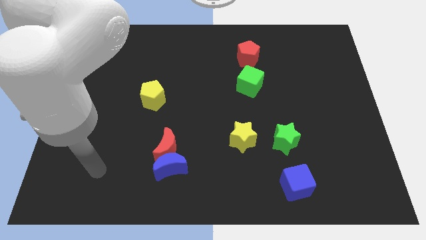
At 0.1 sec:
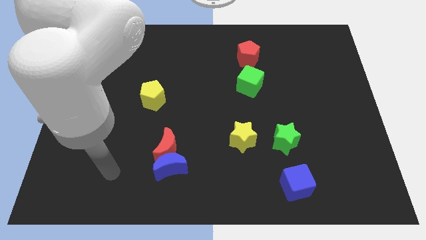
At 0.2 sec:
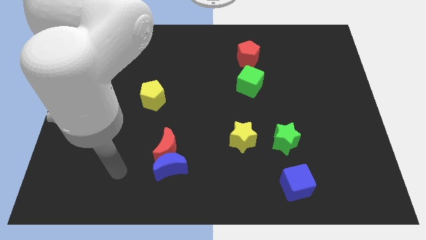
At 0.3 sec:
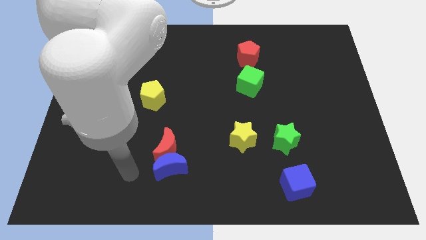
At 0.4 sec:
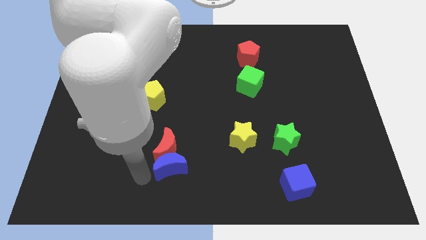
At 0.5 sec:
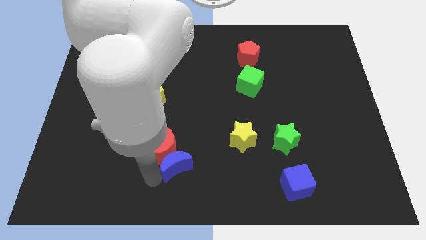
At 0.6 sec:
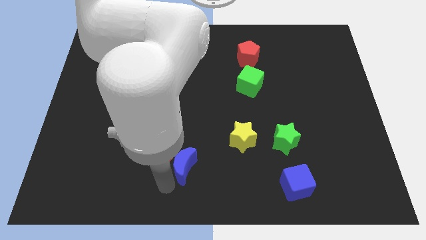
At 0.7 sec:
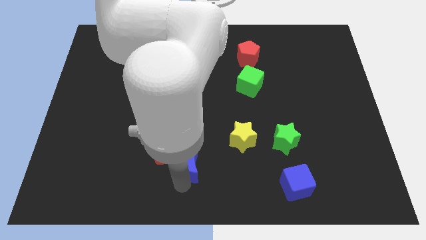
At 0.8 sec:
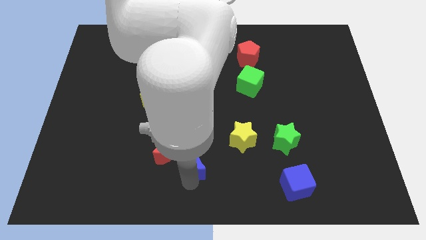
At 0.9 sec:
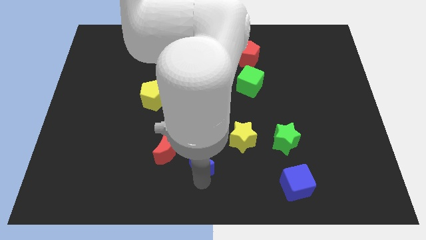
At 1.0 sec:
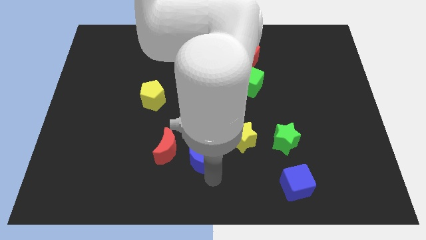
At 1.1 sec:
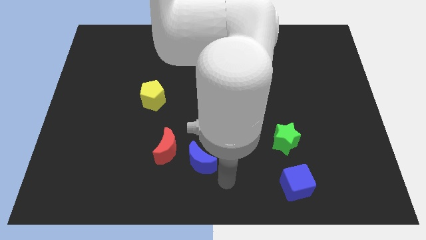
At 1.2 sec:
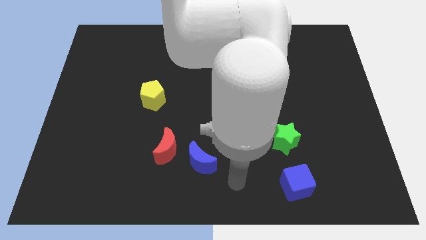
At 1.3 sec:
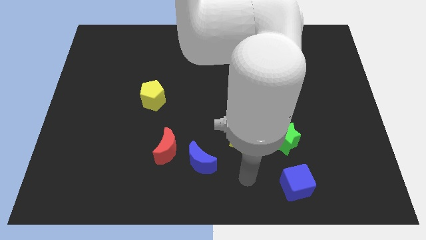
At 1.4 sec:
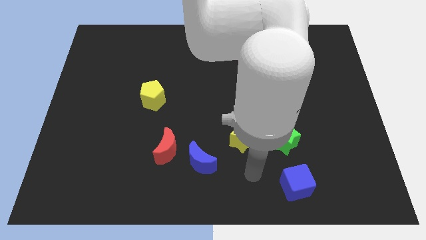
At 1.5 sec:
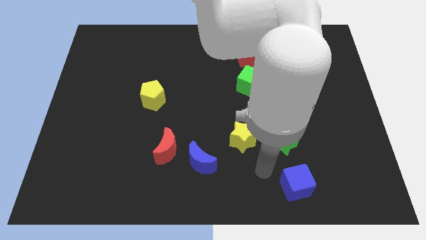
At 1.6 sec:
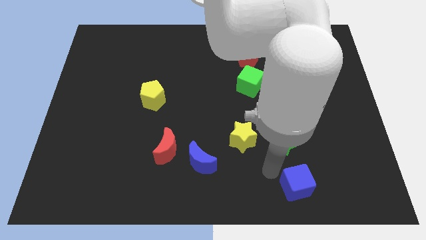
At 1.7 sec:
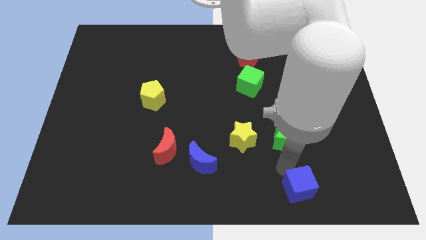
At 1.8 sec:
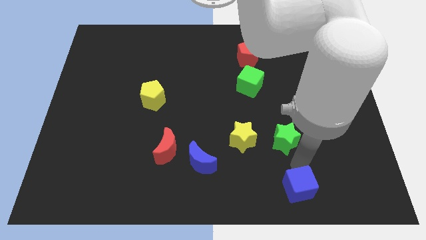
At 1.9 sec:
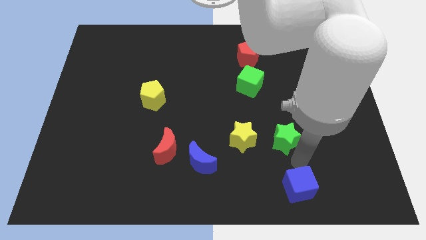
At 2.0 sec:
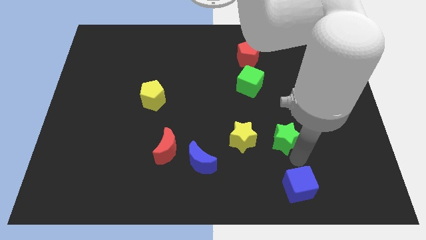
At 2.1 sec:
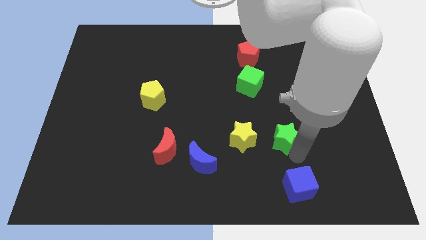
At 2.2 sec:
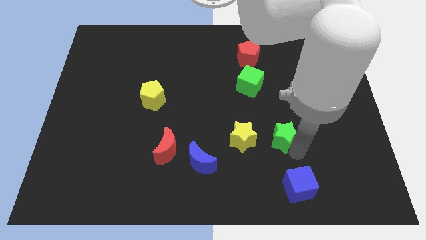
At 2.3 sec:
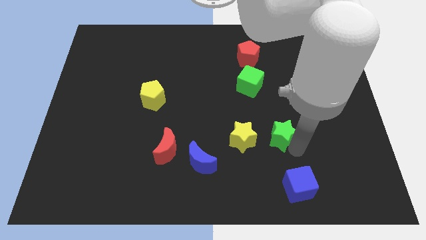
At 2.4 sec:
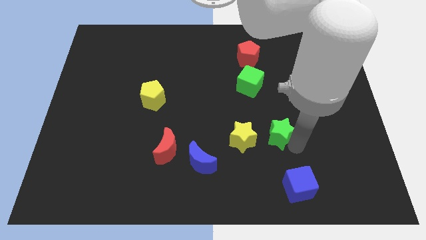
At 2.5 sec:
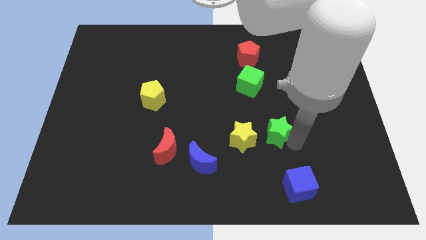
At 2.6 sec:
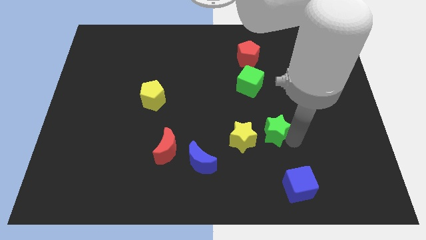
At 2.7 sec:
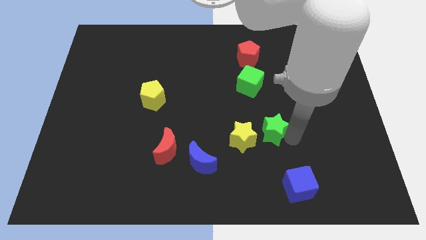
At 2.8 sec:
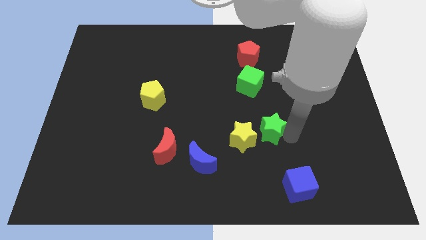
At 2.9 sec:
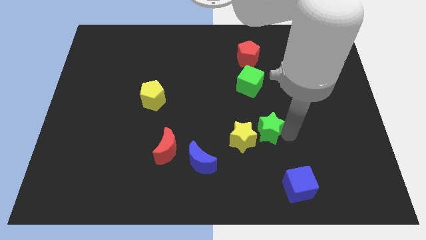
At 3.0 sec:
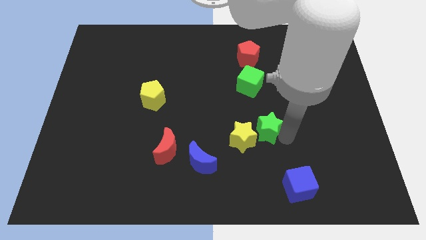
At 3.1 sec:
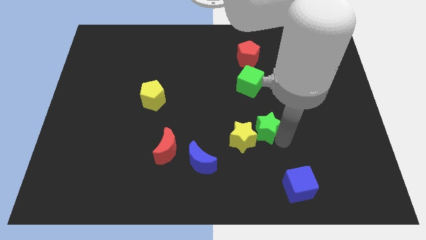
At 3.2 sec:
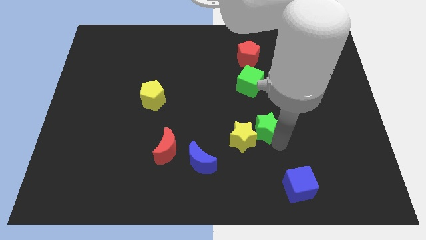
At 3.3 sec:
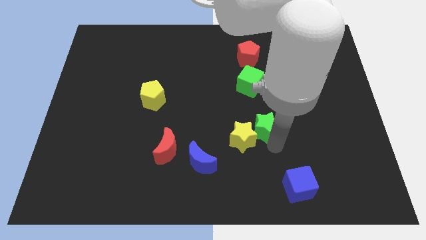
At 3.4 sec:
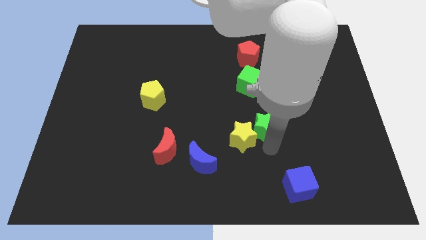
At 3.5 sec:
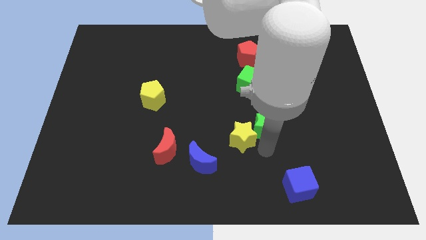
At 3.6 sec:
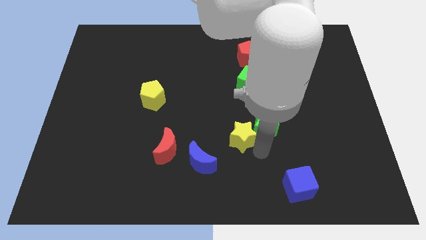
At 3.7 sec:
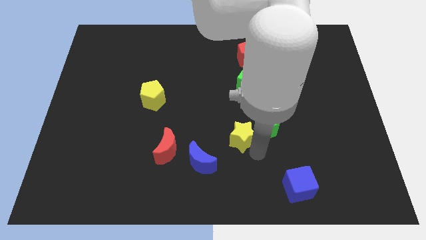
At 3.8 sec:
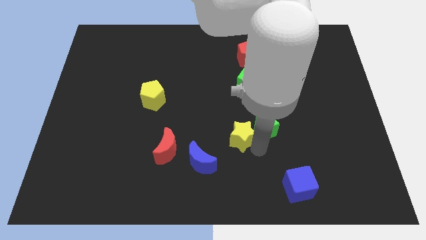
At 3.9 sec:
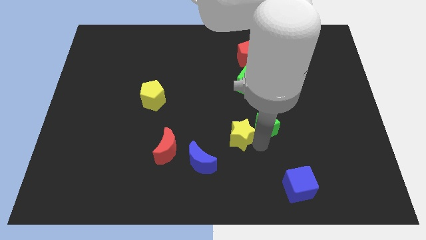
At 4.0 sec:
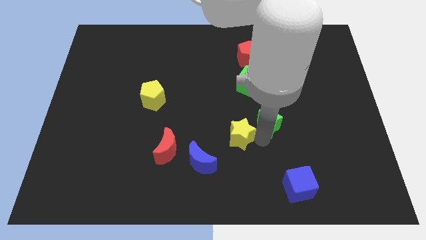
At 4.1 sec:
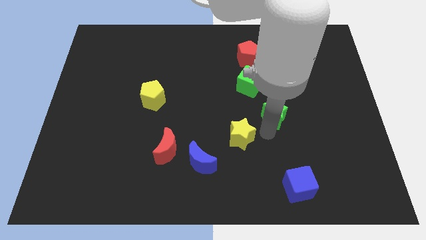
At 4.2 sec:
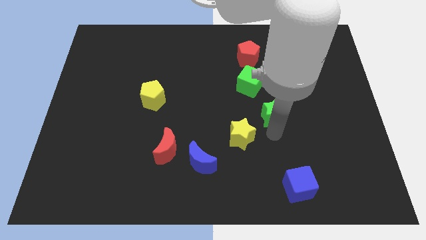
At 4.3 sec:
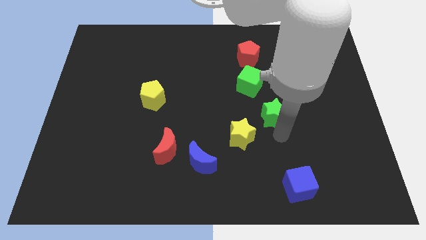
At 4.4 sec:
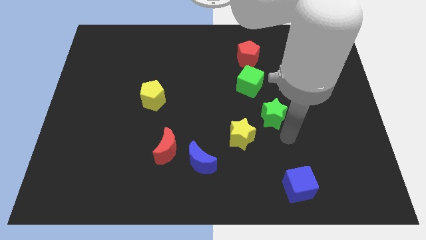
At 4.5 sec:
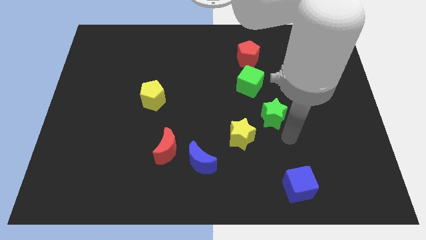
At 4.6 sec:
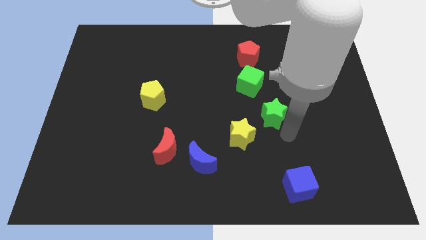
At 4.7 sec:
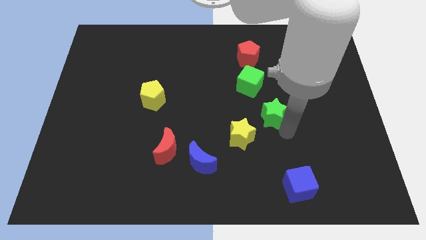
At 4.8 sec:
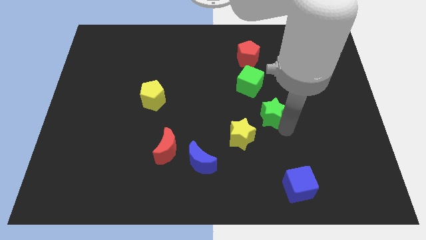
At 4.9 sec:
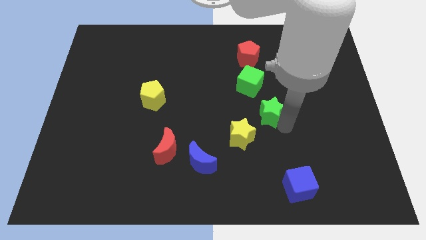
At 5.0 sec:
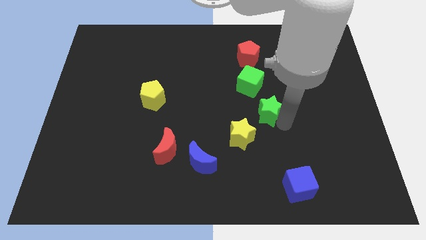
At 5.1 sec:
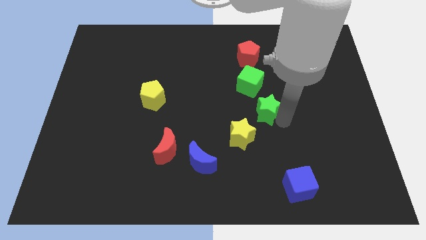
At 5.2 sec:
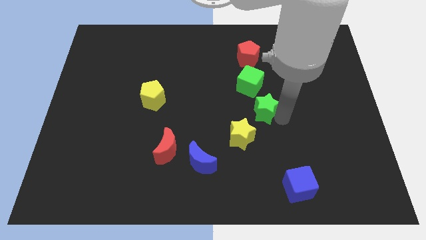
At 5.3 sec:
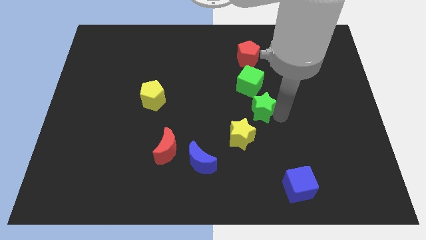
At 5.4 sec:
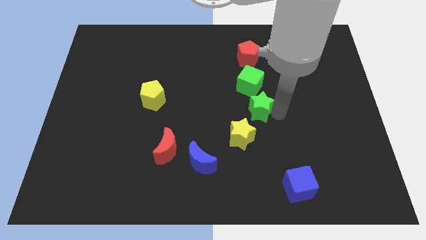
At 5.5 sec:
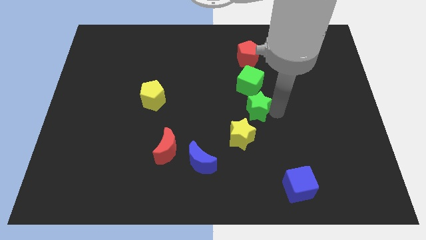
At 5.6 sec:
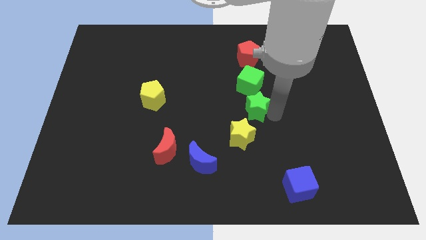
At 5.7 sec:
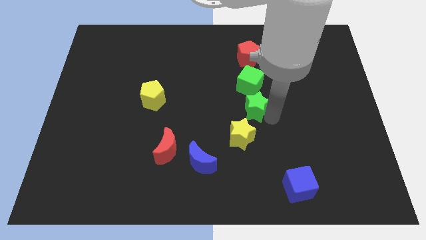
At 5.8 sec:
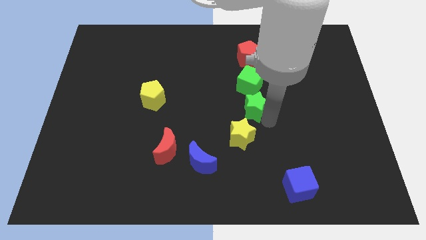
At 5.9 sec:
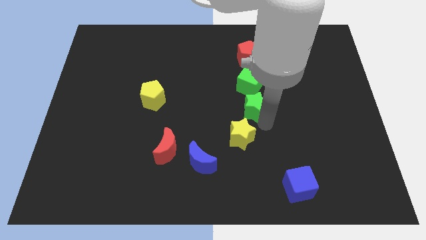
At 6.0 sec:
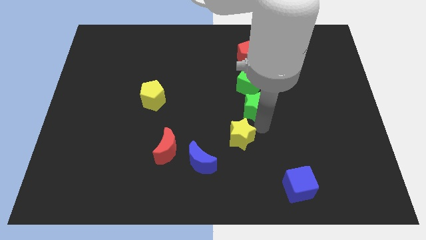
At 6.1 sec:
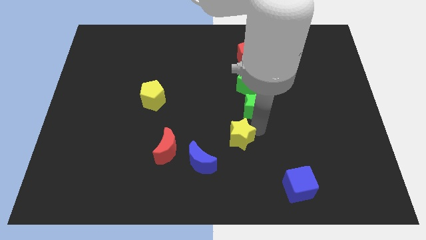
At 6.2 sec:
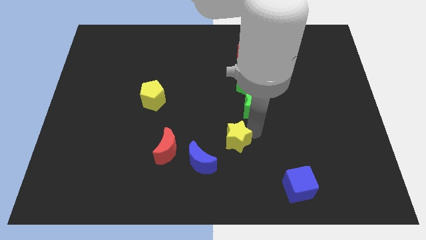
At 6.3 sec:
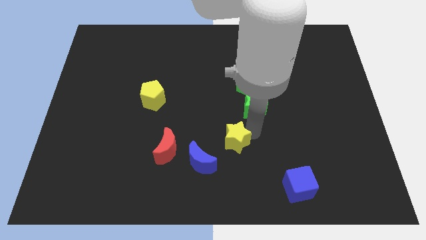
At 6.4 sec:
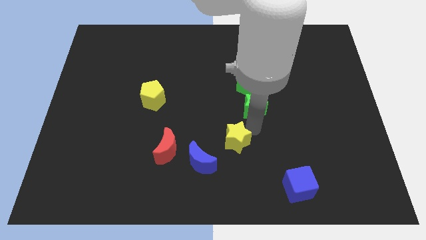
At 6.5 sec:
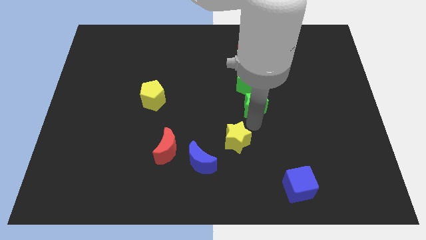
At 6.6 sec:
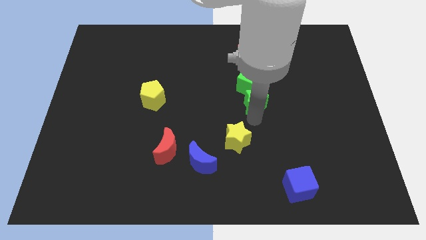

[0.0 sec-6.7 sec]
slide the green star towards the green cube
